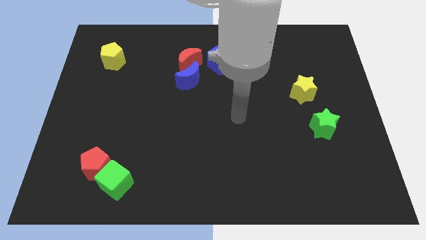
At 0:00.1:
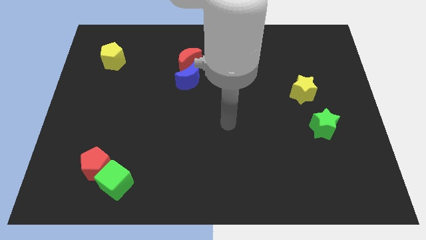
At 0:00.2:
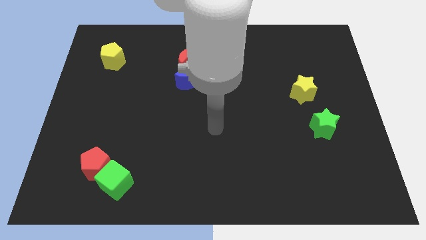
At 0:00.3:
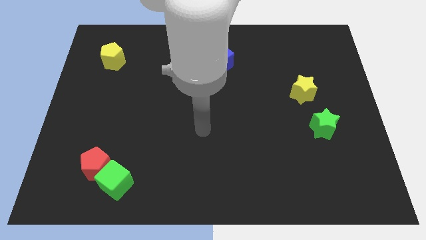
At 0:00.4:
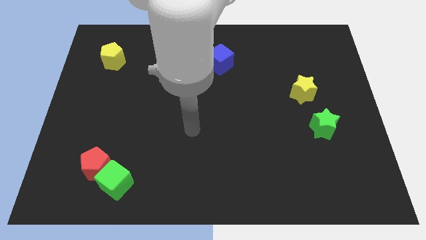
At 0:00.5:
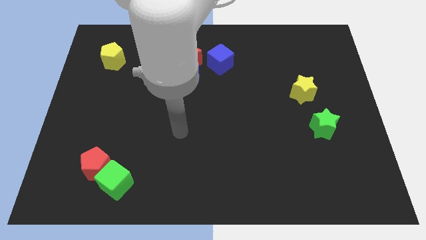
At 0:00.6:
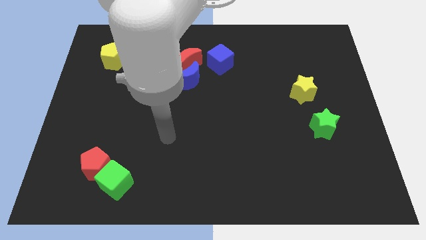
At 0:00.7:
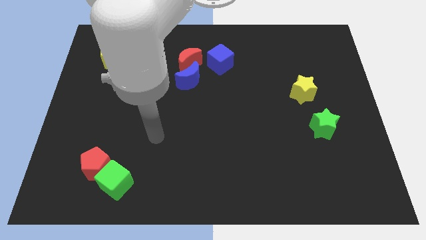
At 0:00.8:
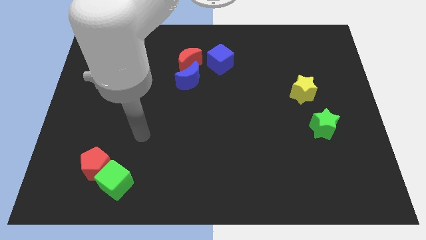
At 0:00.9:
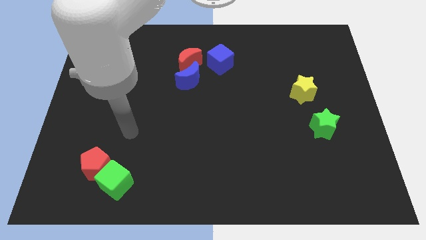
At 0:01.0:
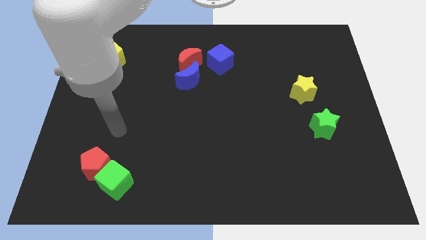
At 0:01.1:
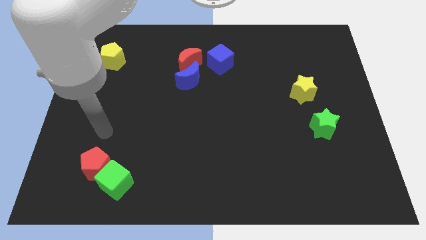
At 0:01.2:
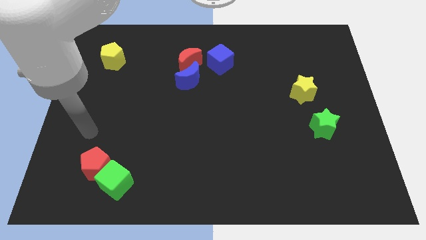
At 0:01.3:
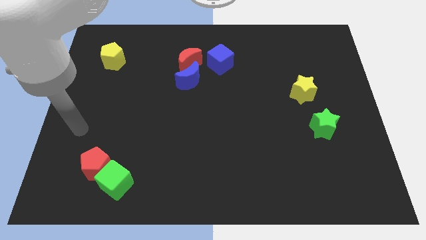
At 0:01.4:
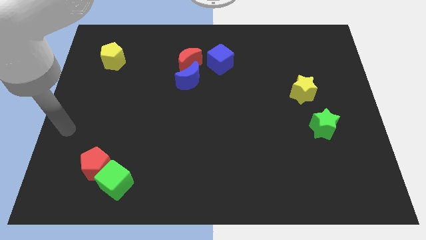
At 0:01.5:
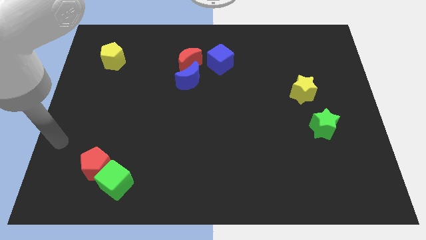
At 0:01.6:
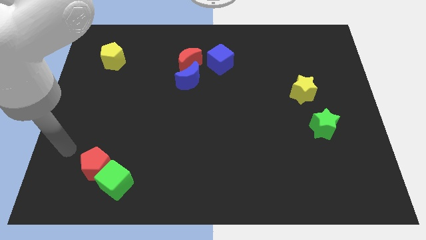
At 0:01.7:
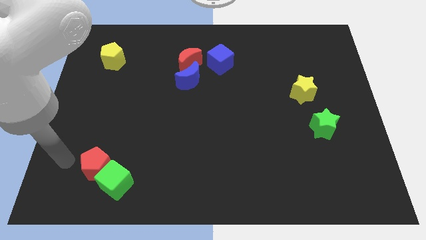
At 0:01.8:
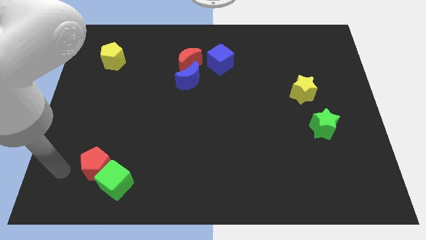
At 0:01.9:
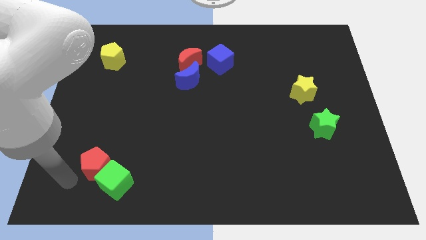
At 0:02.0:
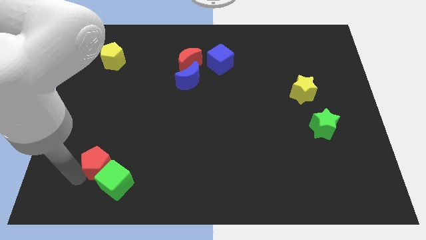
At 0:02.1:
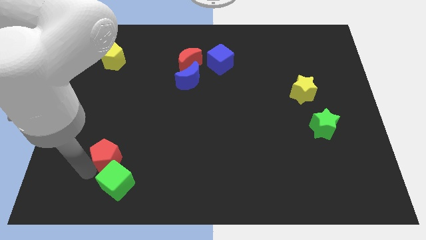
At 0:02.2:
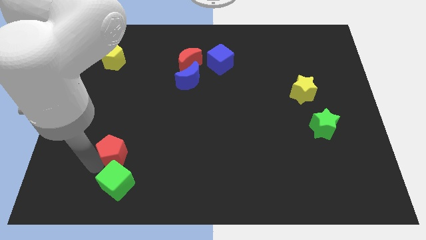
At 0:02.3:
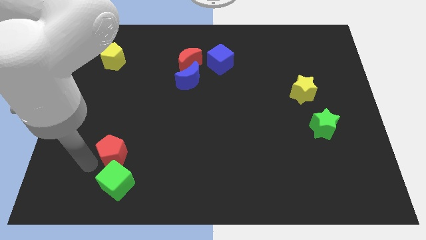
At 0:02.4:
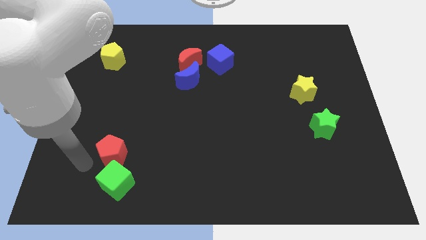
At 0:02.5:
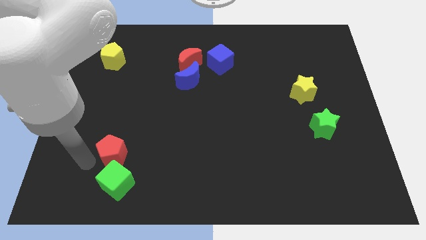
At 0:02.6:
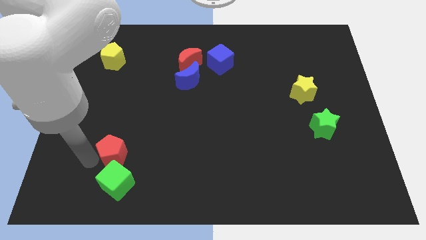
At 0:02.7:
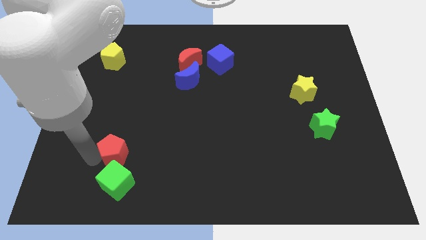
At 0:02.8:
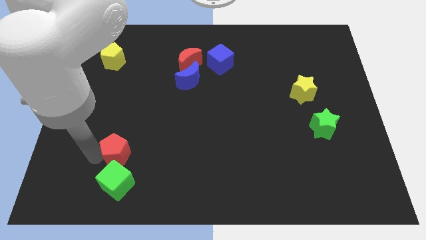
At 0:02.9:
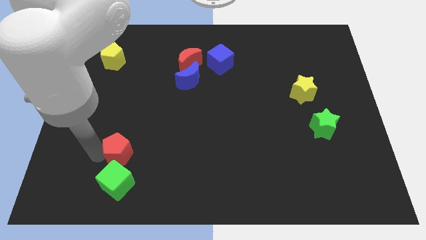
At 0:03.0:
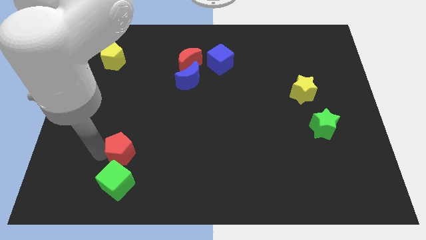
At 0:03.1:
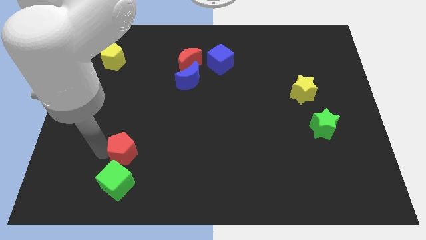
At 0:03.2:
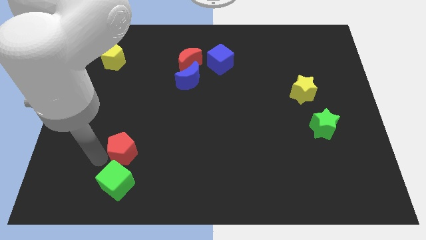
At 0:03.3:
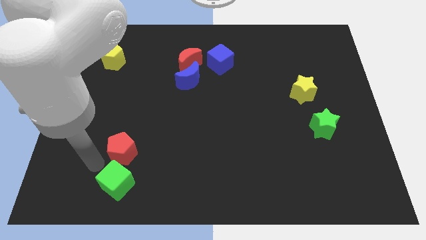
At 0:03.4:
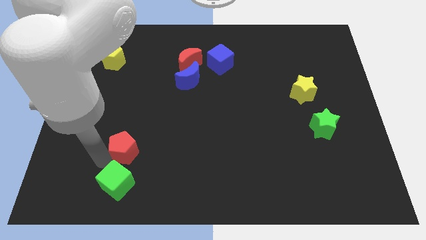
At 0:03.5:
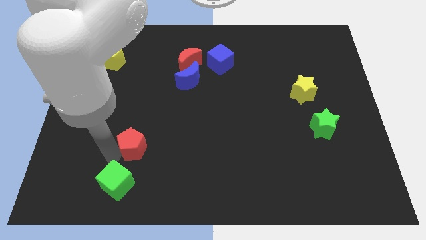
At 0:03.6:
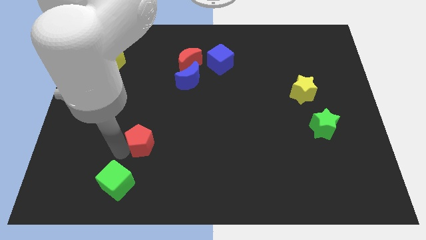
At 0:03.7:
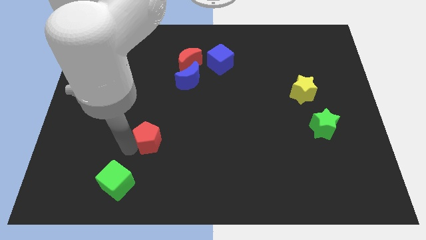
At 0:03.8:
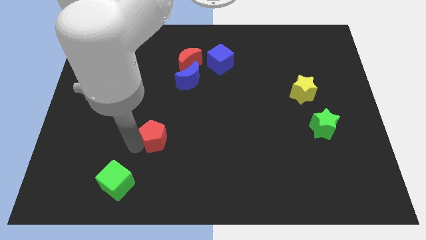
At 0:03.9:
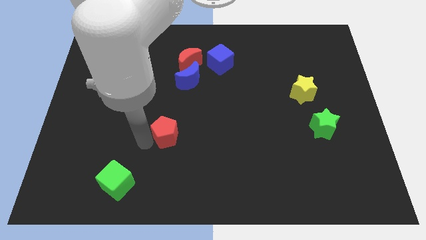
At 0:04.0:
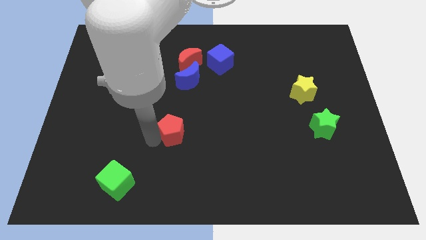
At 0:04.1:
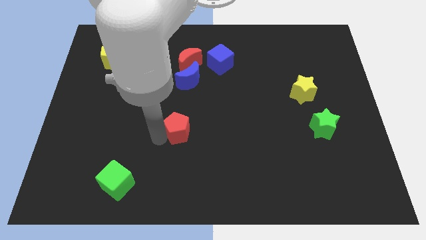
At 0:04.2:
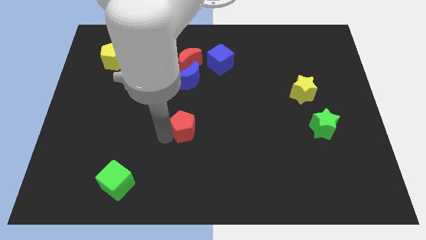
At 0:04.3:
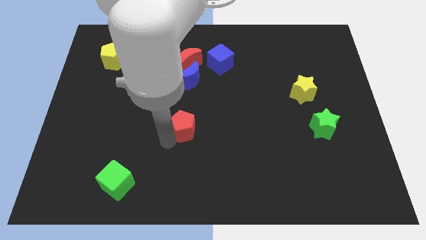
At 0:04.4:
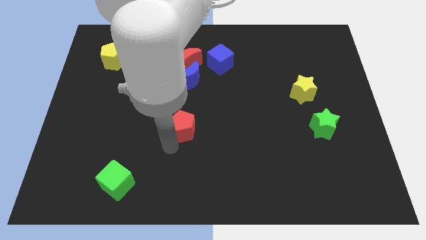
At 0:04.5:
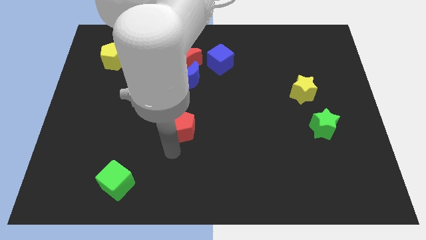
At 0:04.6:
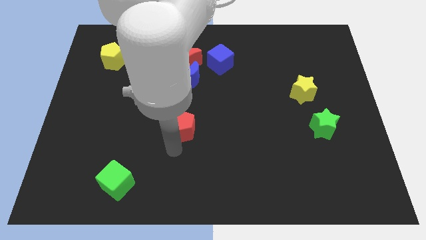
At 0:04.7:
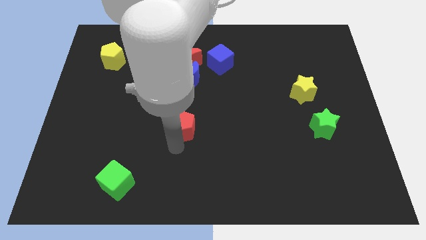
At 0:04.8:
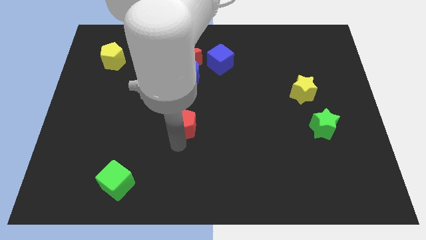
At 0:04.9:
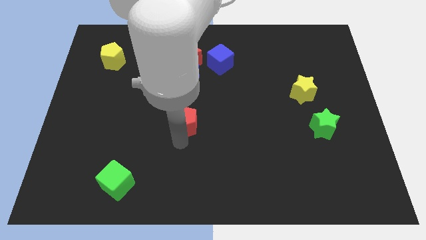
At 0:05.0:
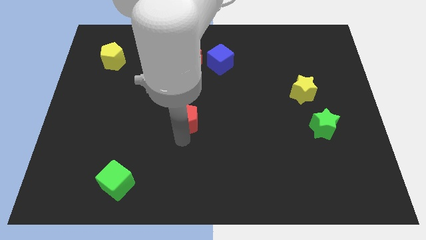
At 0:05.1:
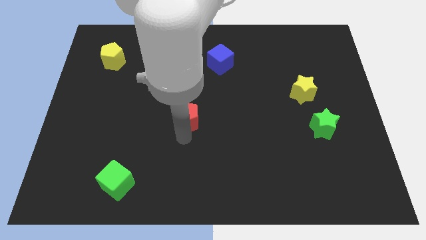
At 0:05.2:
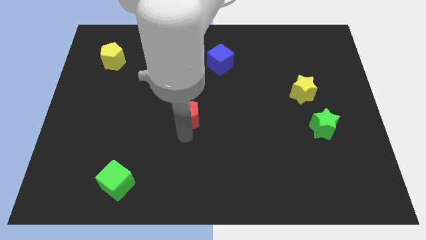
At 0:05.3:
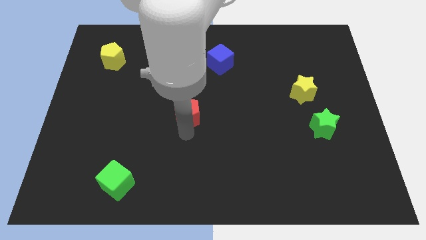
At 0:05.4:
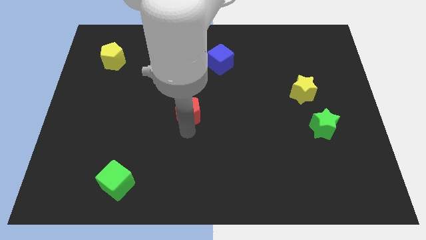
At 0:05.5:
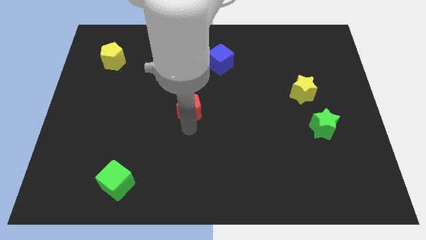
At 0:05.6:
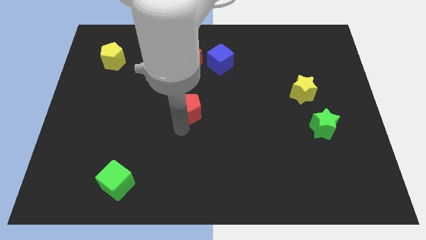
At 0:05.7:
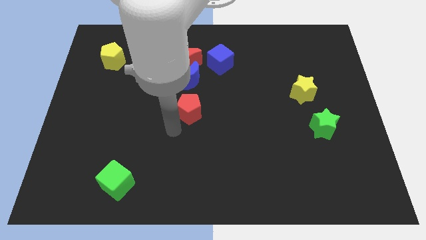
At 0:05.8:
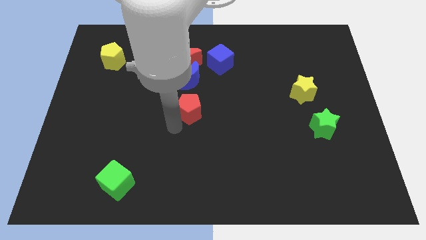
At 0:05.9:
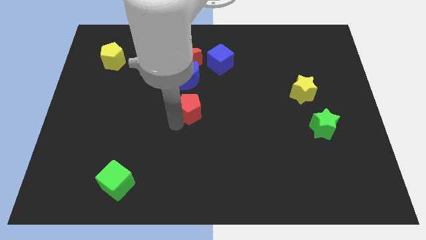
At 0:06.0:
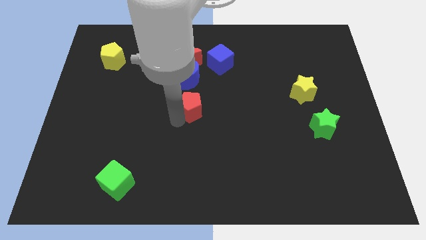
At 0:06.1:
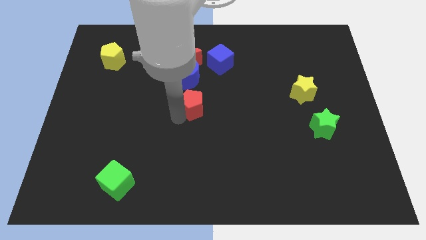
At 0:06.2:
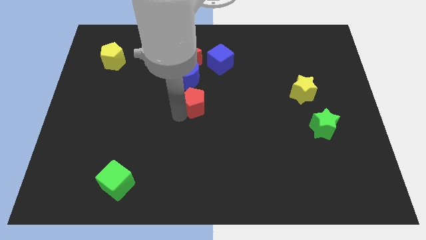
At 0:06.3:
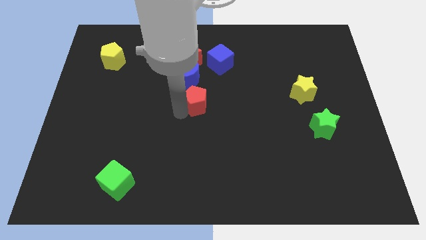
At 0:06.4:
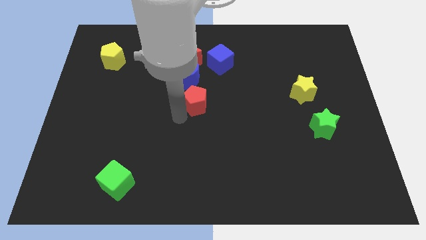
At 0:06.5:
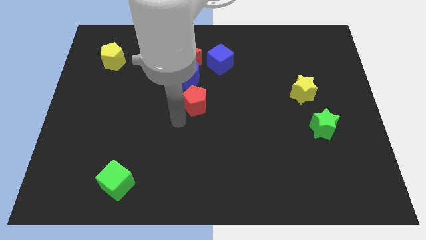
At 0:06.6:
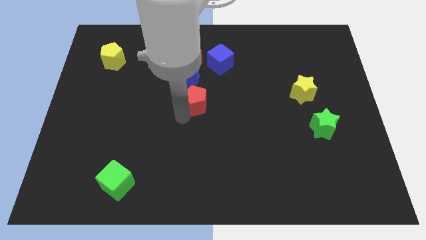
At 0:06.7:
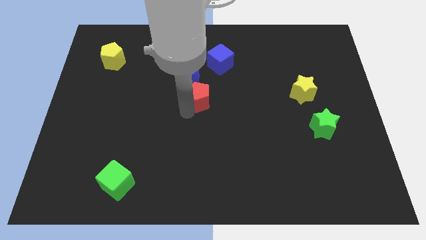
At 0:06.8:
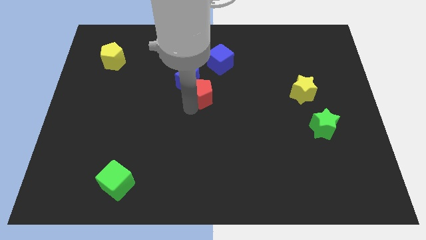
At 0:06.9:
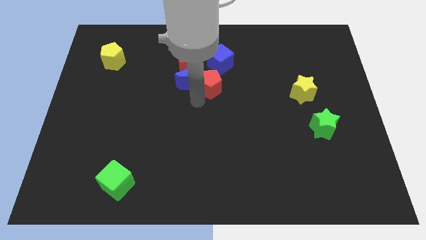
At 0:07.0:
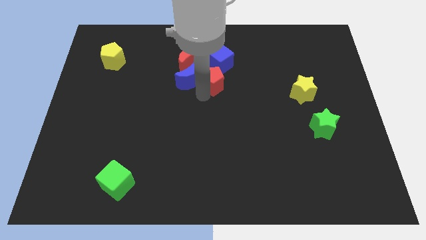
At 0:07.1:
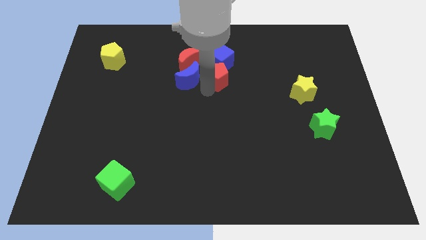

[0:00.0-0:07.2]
slide the red pentagon next to the blue cube

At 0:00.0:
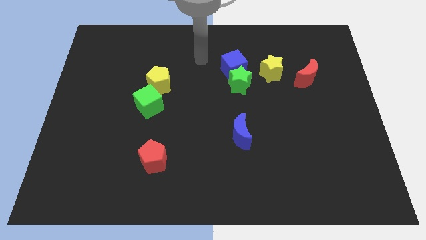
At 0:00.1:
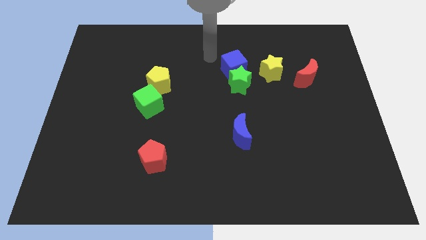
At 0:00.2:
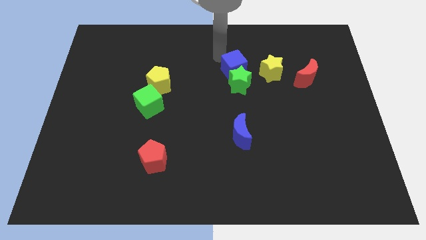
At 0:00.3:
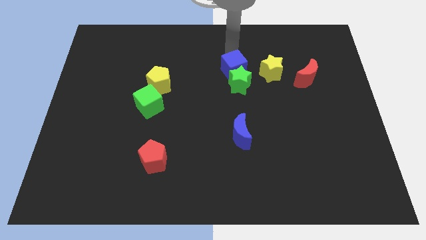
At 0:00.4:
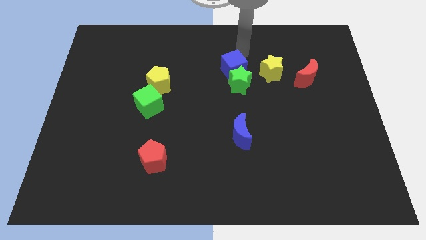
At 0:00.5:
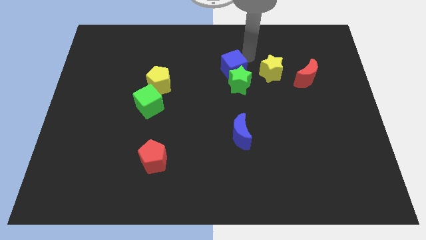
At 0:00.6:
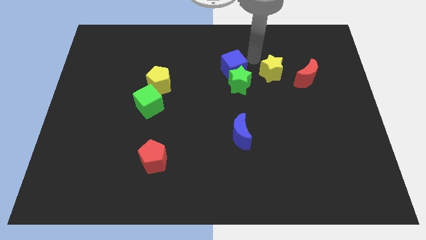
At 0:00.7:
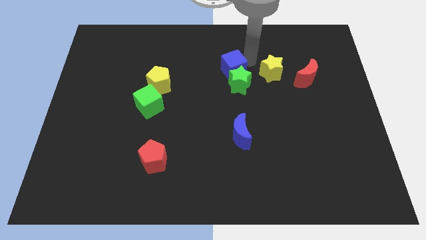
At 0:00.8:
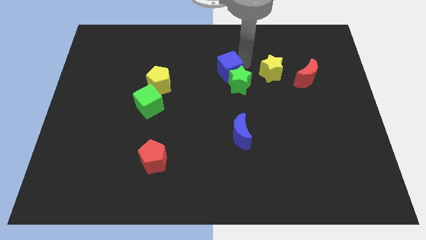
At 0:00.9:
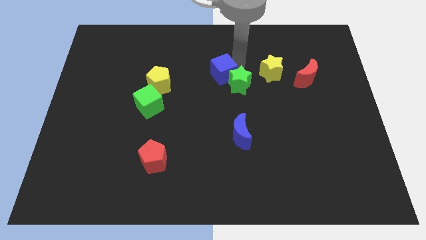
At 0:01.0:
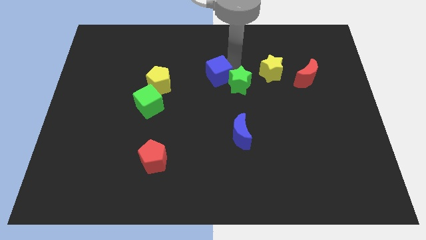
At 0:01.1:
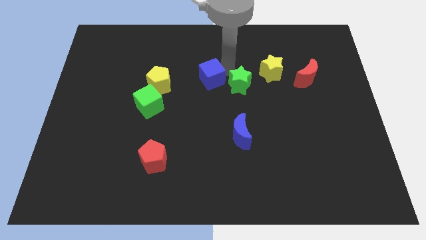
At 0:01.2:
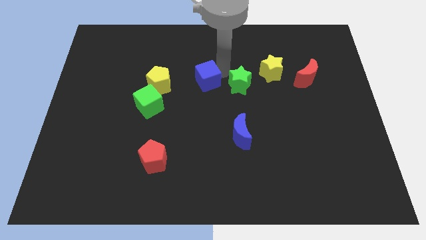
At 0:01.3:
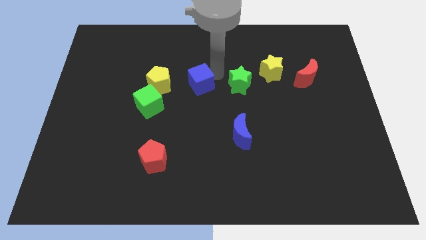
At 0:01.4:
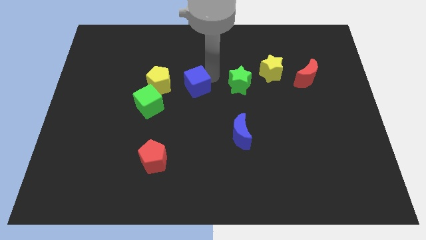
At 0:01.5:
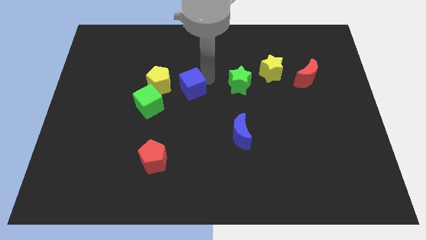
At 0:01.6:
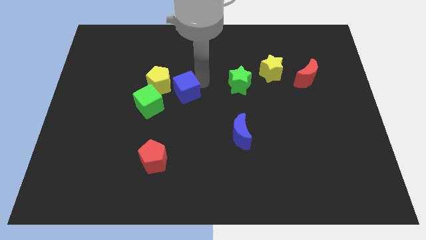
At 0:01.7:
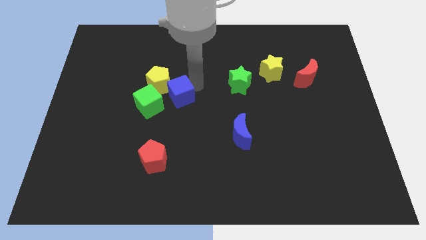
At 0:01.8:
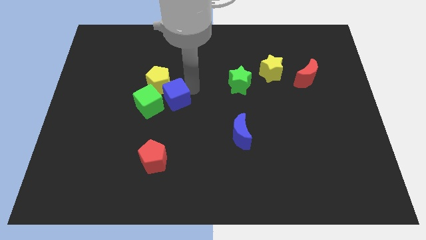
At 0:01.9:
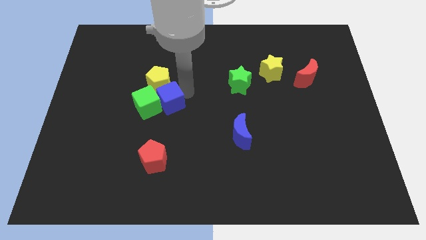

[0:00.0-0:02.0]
slide the blue cube to the green cube
